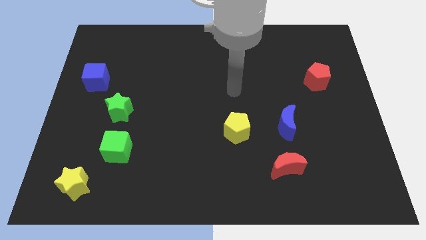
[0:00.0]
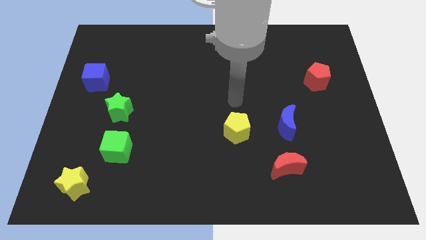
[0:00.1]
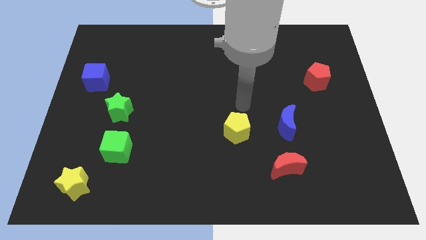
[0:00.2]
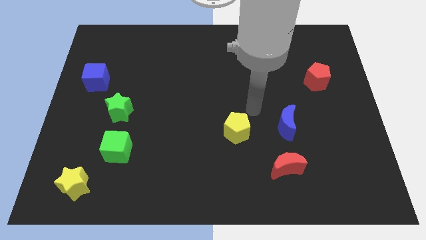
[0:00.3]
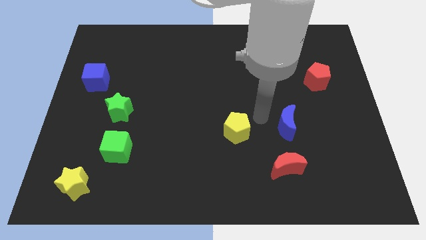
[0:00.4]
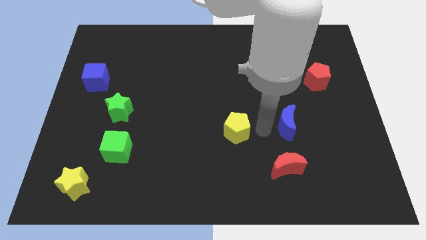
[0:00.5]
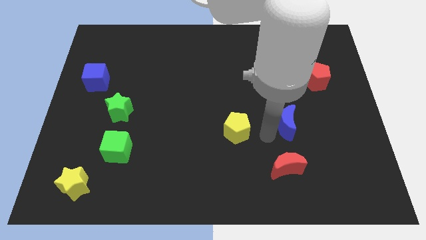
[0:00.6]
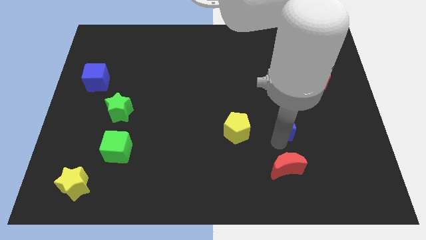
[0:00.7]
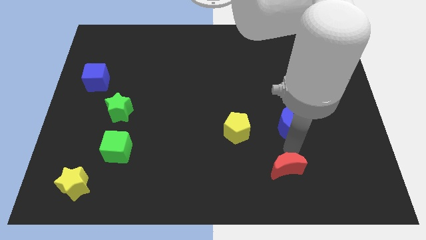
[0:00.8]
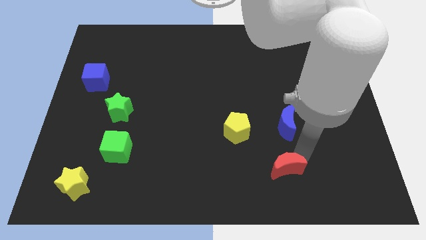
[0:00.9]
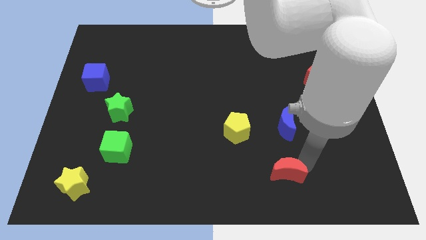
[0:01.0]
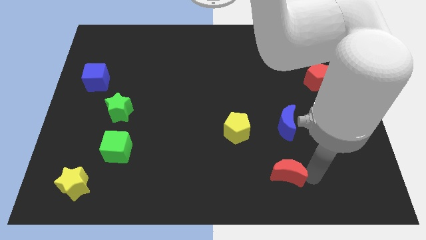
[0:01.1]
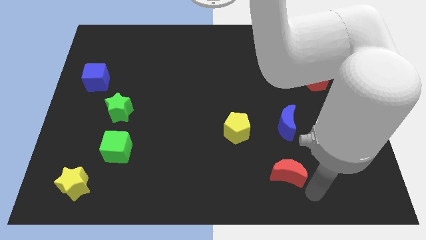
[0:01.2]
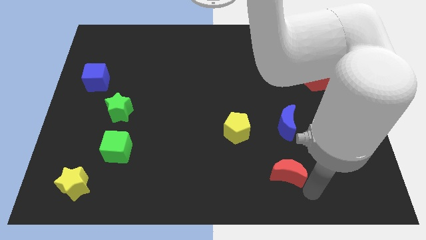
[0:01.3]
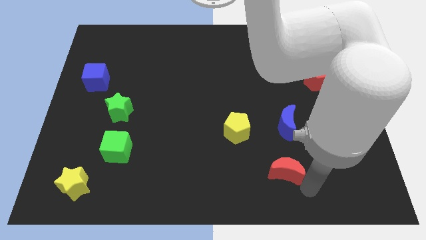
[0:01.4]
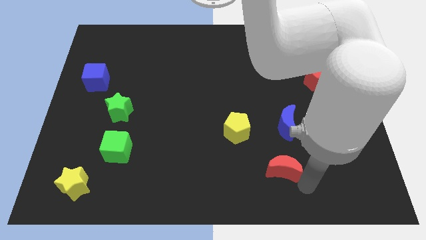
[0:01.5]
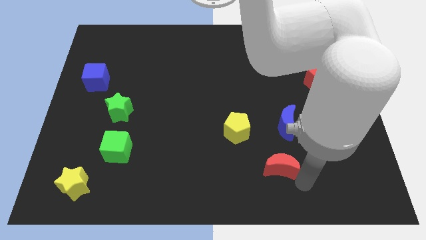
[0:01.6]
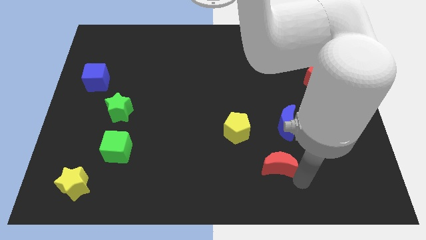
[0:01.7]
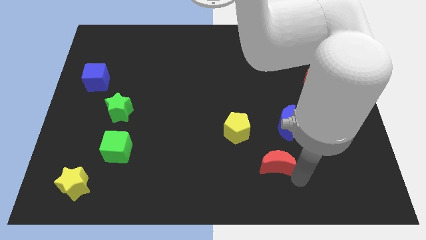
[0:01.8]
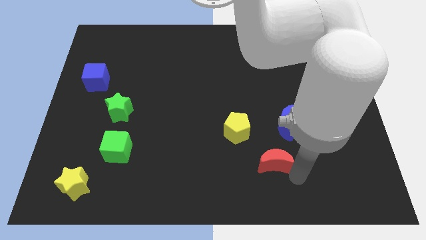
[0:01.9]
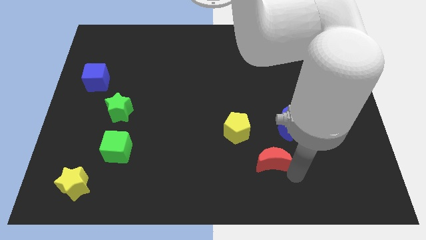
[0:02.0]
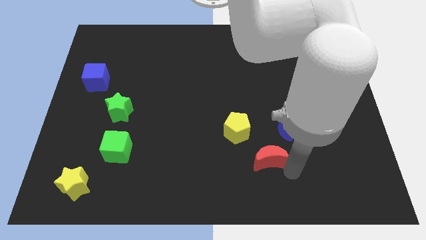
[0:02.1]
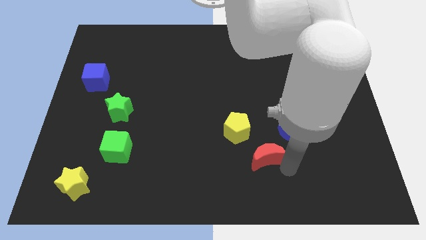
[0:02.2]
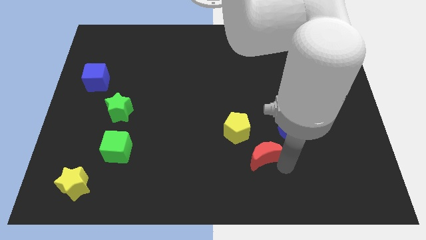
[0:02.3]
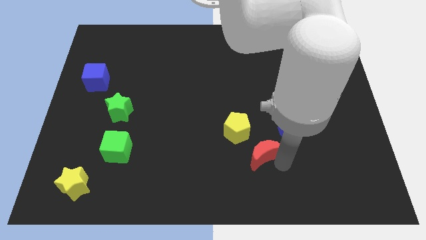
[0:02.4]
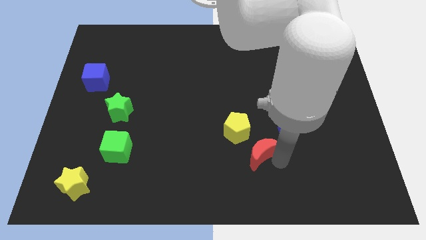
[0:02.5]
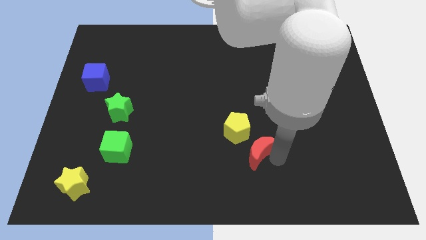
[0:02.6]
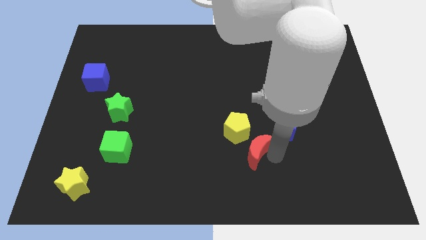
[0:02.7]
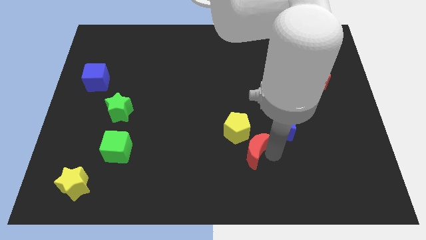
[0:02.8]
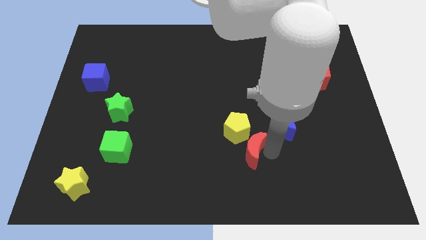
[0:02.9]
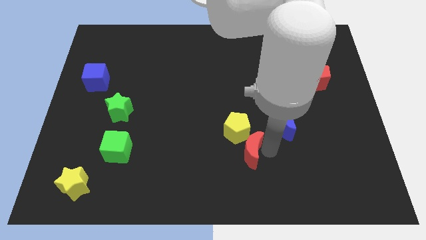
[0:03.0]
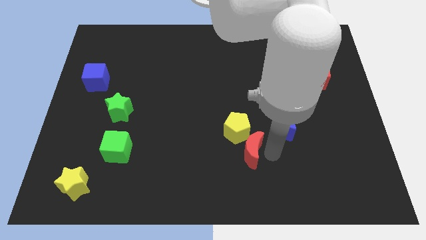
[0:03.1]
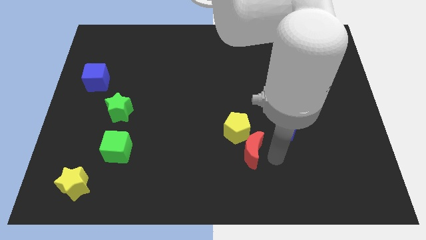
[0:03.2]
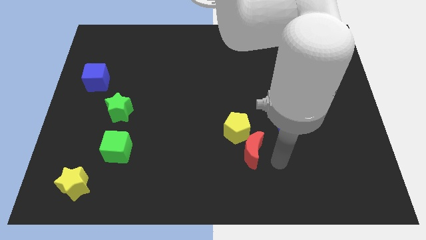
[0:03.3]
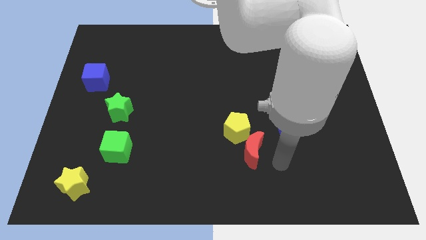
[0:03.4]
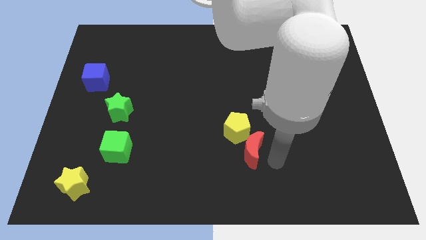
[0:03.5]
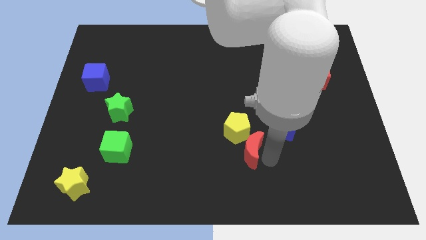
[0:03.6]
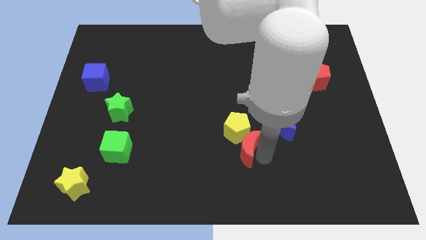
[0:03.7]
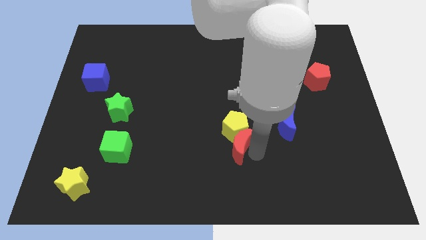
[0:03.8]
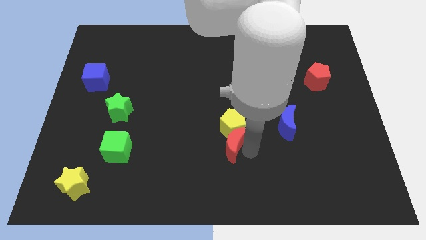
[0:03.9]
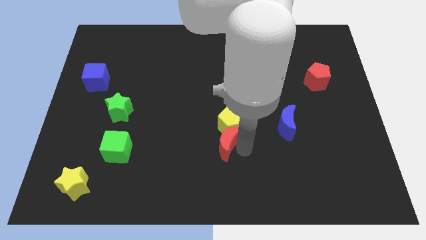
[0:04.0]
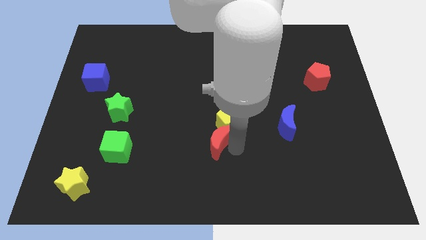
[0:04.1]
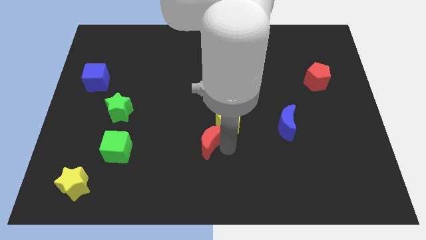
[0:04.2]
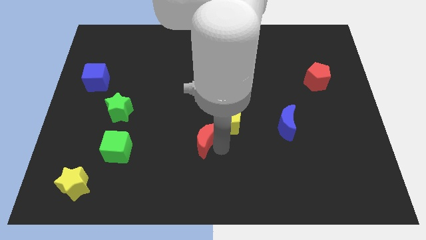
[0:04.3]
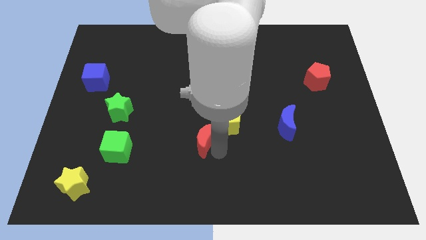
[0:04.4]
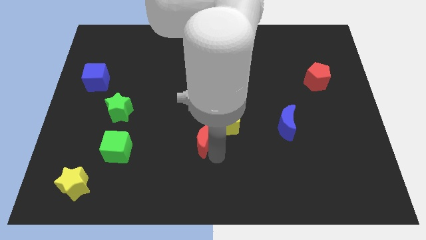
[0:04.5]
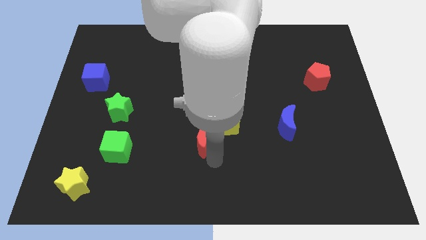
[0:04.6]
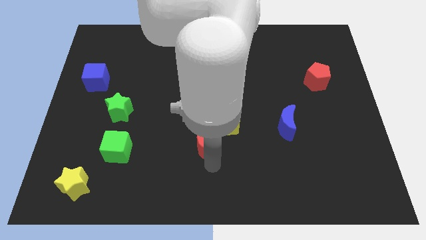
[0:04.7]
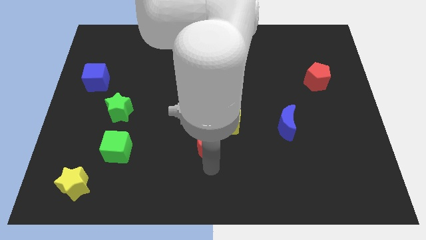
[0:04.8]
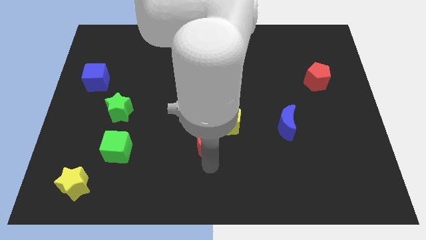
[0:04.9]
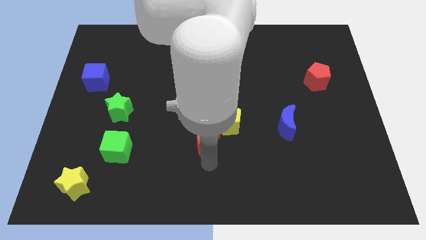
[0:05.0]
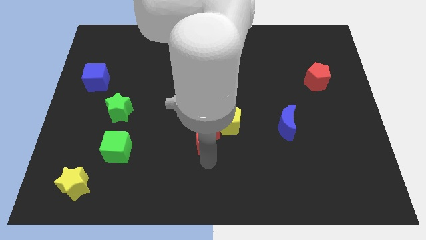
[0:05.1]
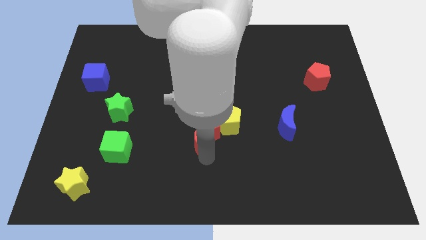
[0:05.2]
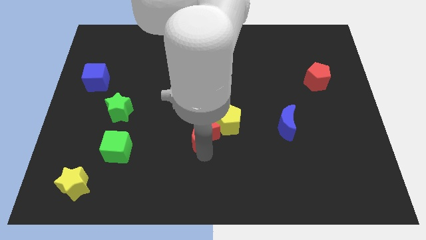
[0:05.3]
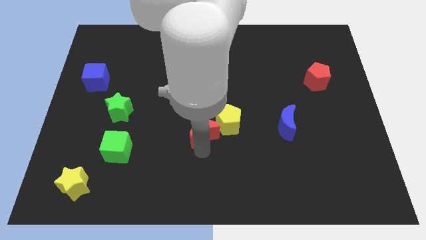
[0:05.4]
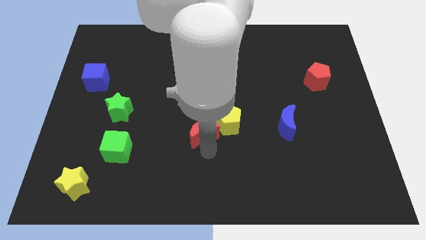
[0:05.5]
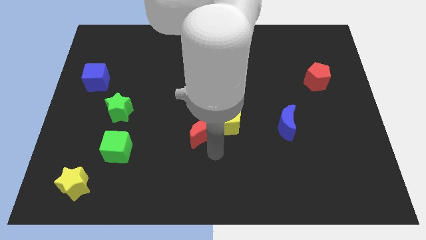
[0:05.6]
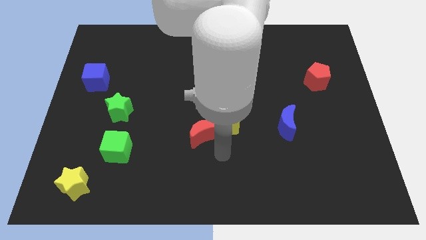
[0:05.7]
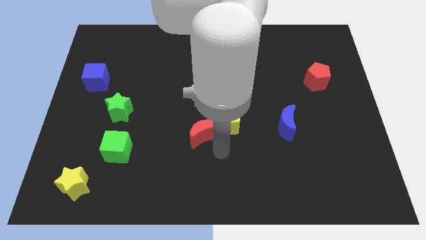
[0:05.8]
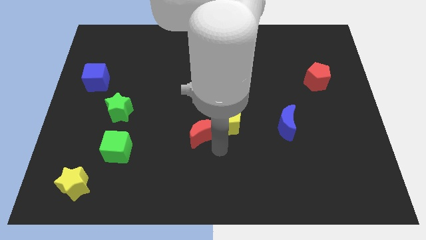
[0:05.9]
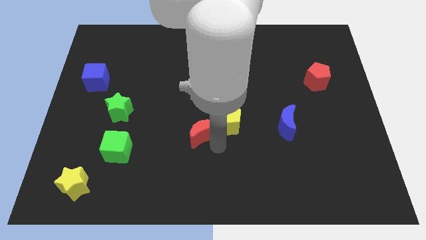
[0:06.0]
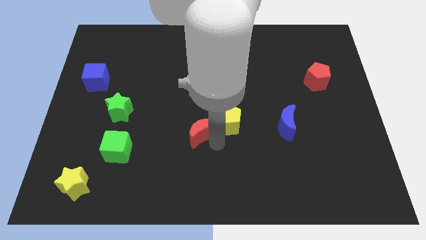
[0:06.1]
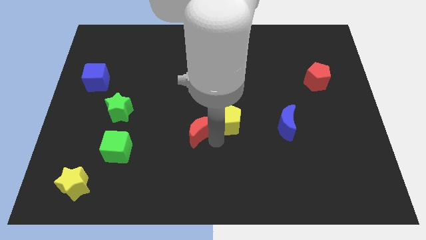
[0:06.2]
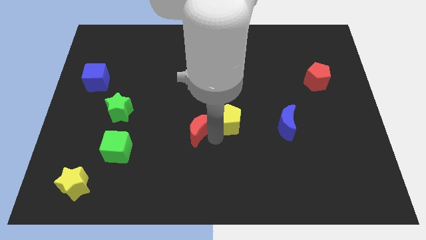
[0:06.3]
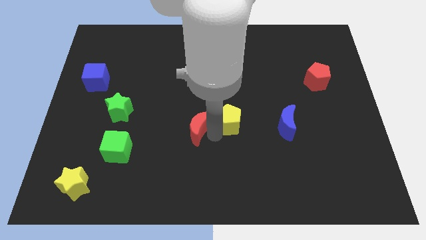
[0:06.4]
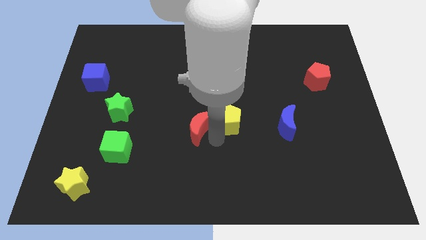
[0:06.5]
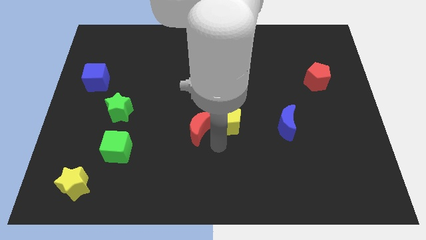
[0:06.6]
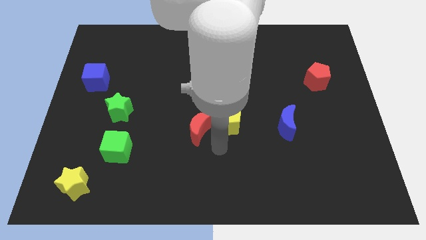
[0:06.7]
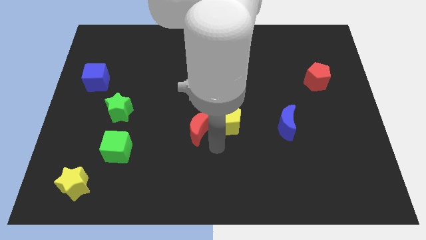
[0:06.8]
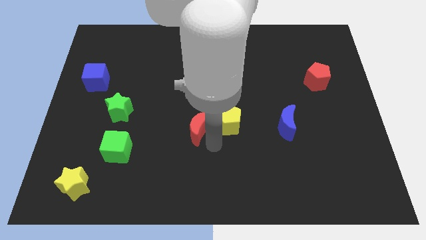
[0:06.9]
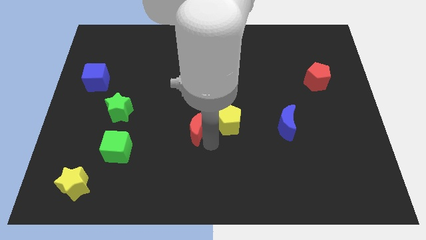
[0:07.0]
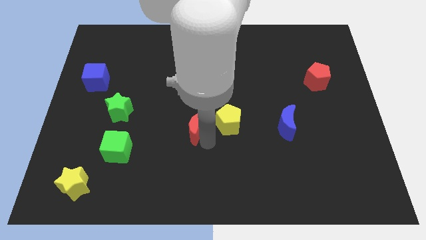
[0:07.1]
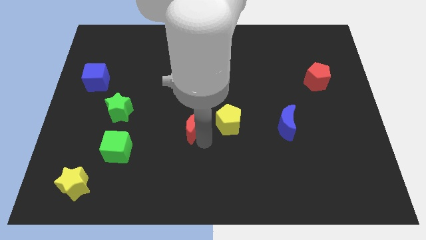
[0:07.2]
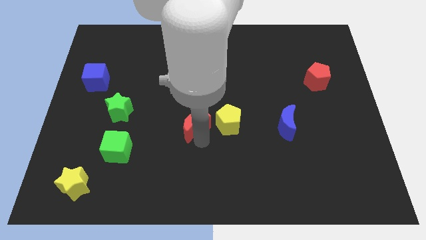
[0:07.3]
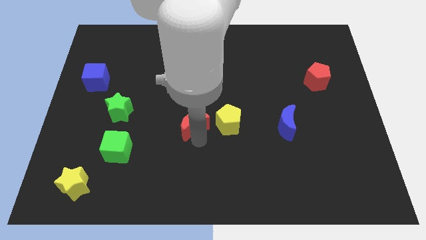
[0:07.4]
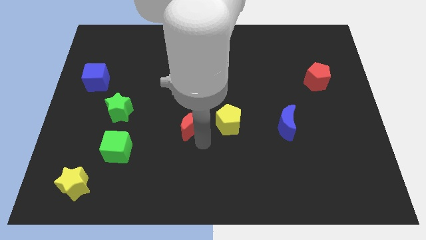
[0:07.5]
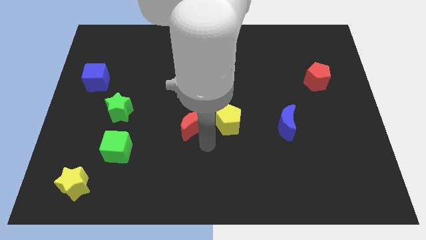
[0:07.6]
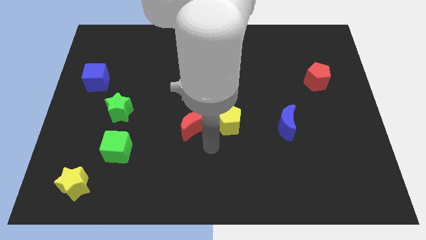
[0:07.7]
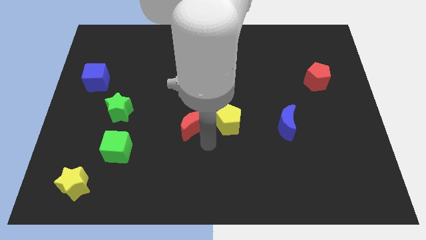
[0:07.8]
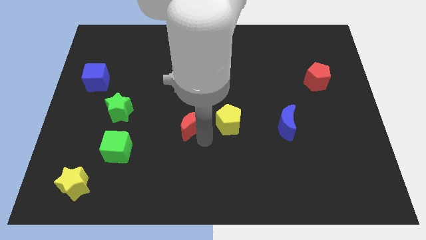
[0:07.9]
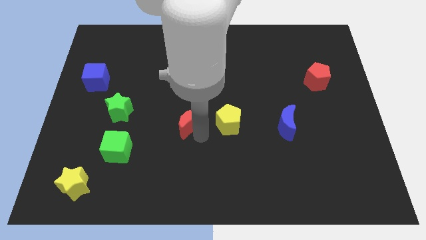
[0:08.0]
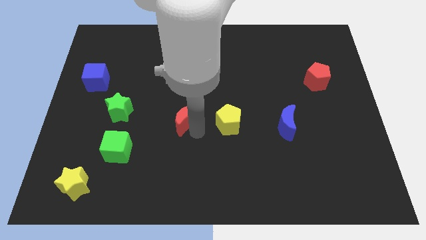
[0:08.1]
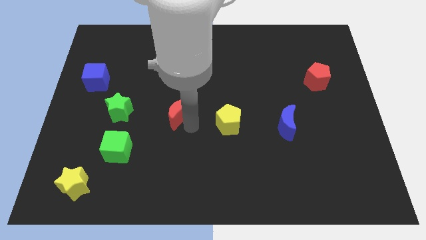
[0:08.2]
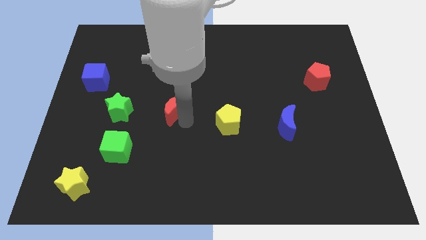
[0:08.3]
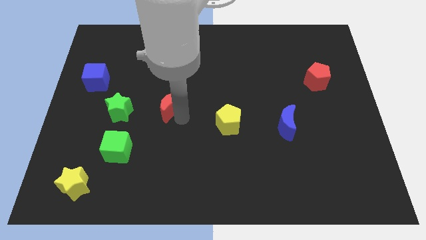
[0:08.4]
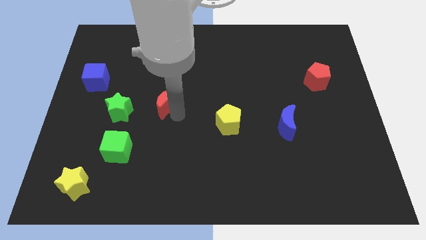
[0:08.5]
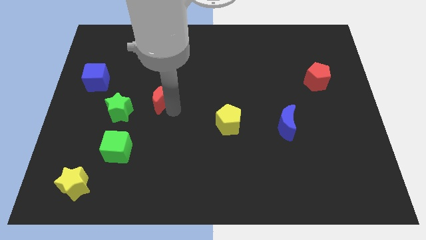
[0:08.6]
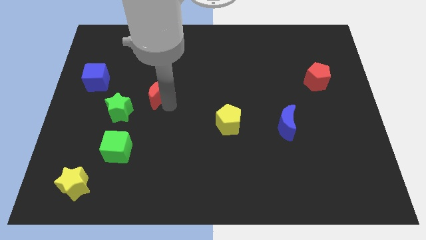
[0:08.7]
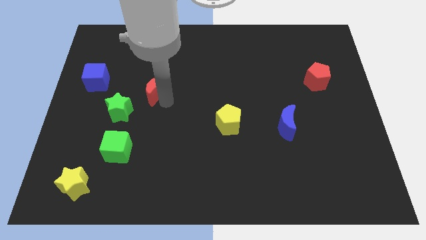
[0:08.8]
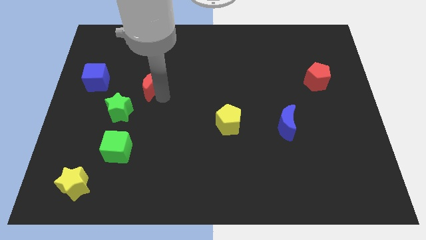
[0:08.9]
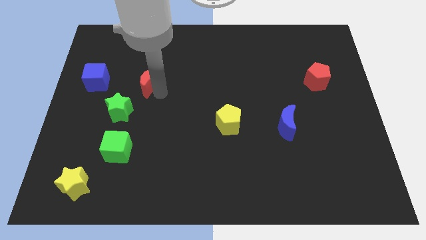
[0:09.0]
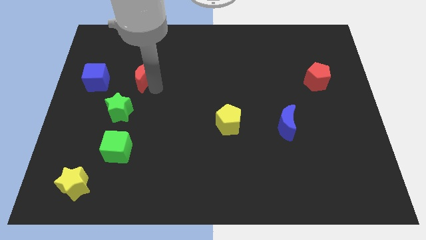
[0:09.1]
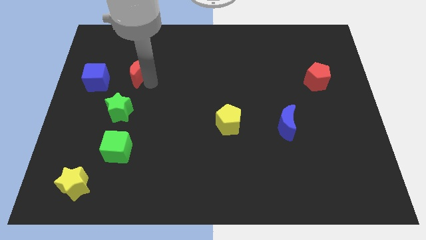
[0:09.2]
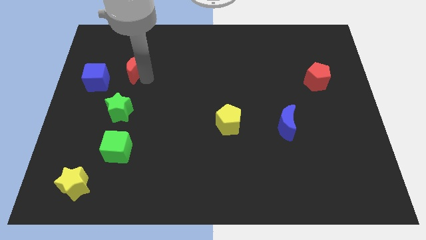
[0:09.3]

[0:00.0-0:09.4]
push the red moon to the top right of the blue cube
